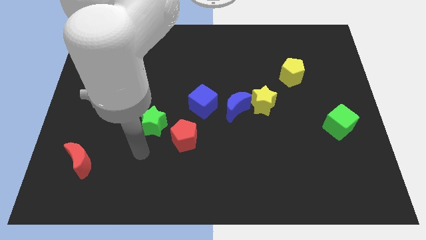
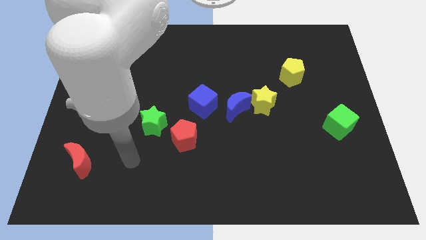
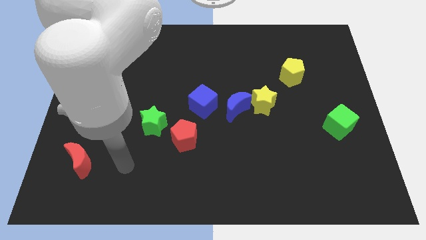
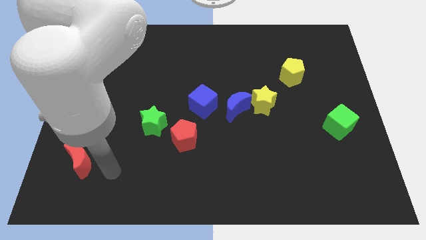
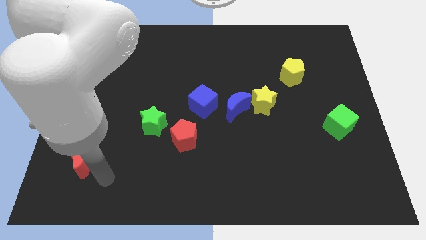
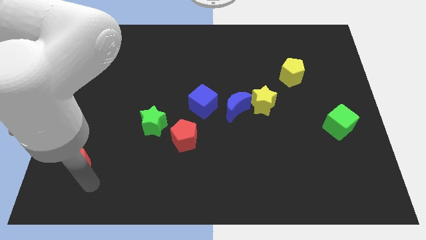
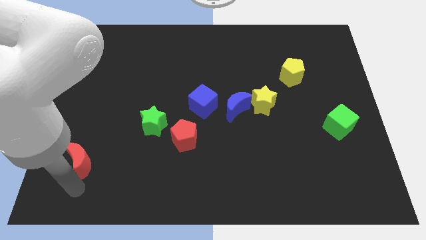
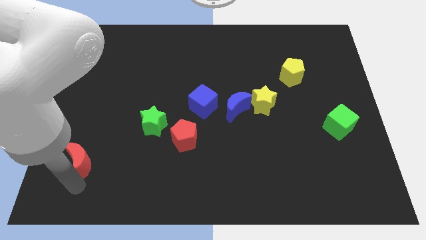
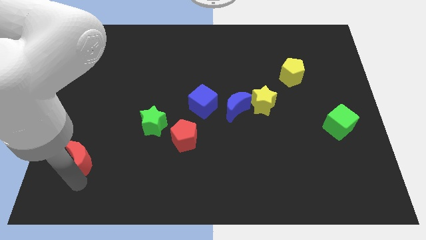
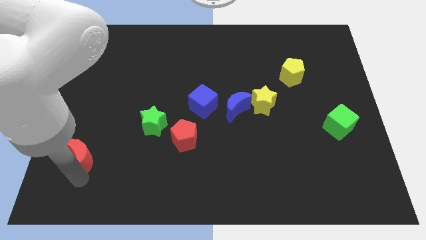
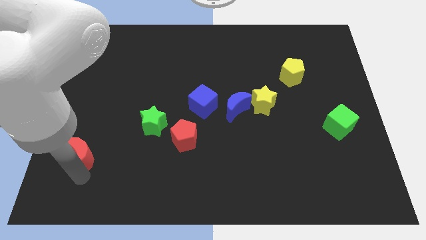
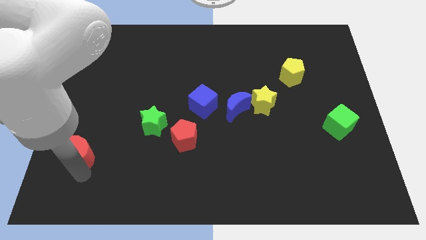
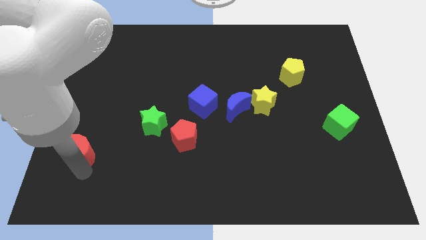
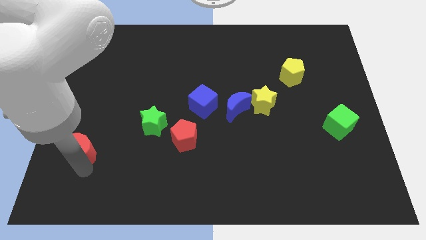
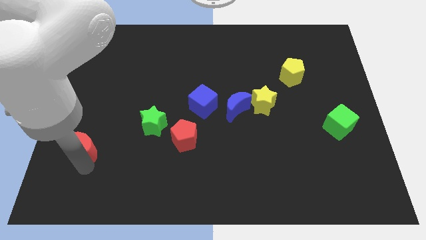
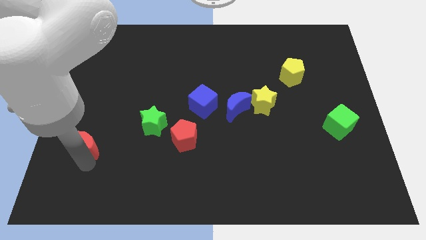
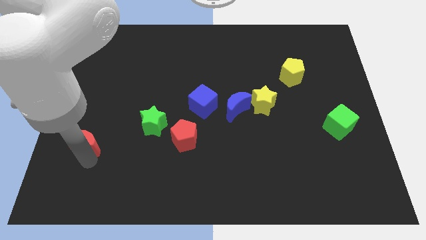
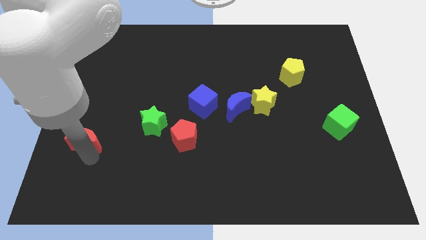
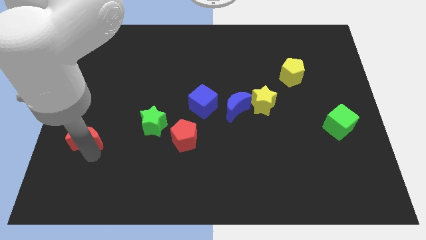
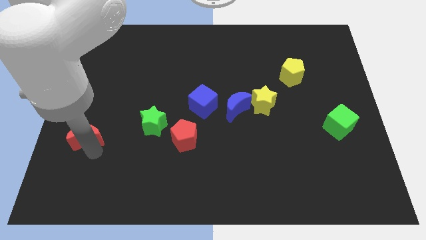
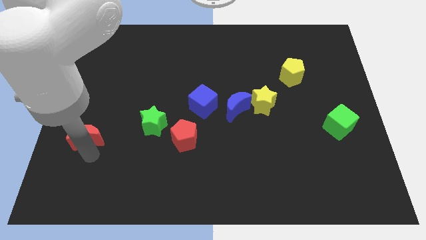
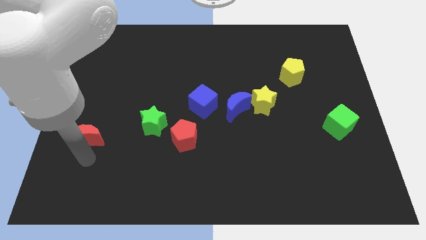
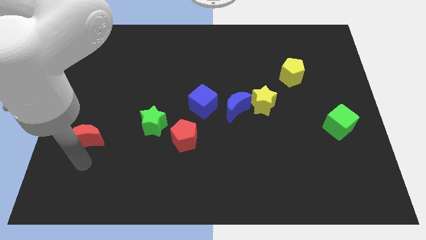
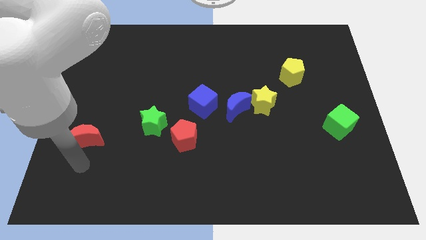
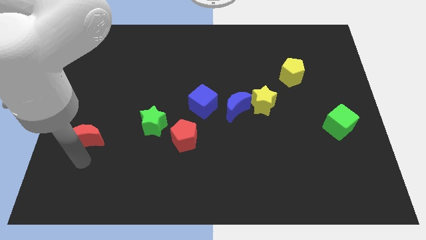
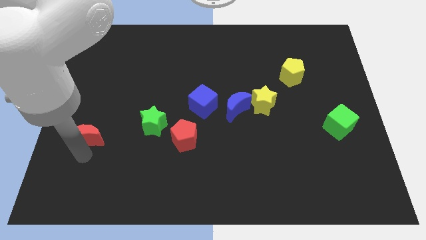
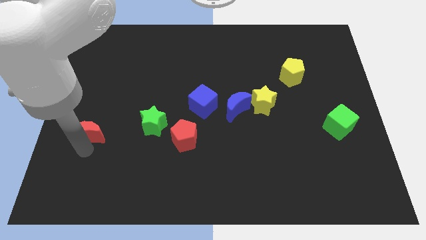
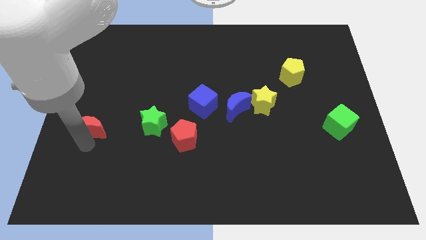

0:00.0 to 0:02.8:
slightly move the red moon upwards

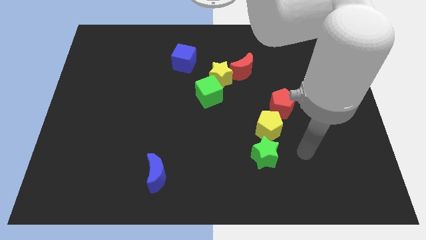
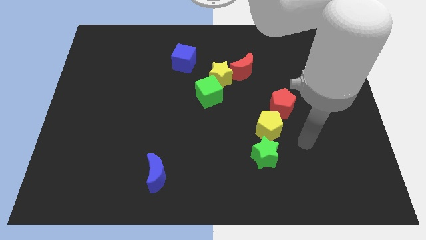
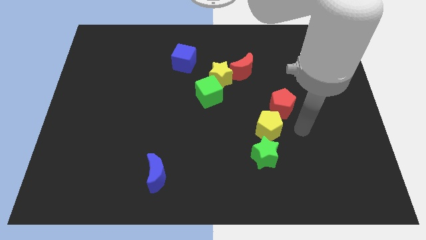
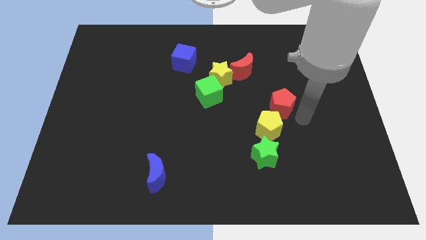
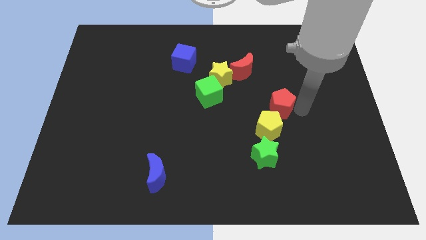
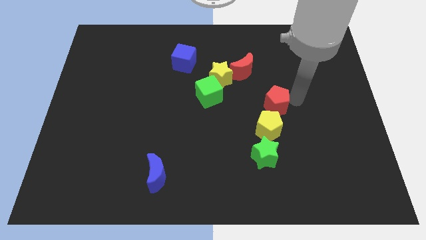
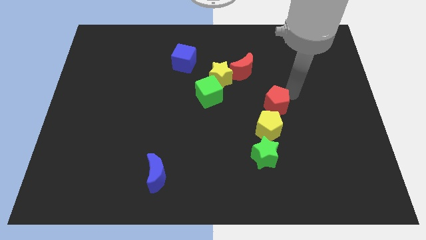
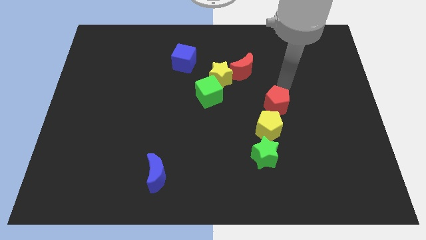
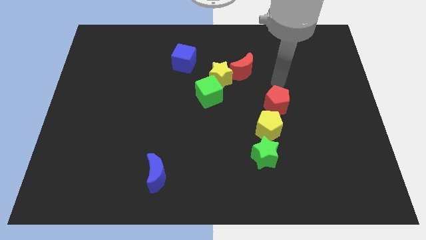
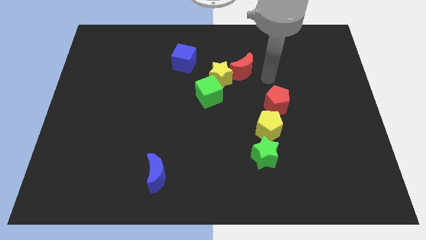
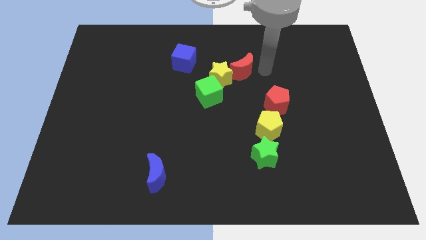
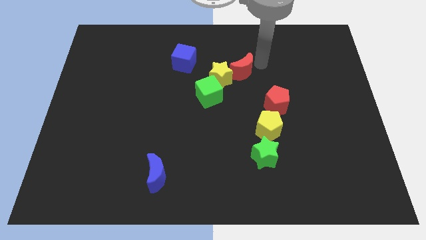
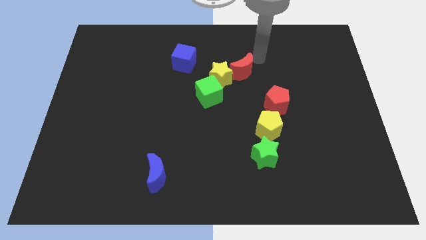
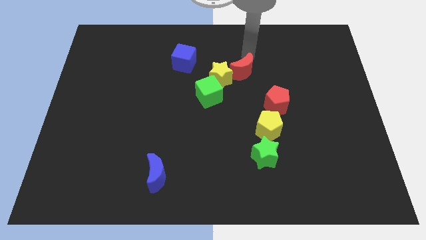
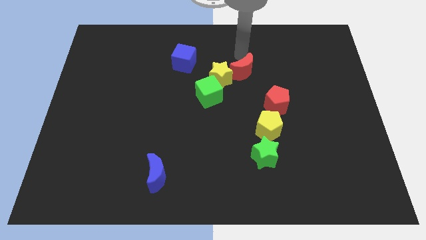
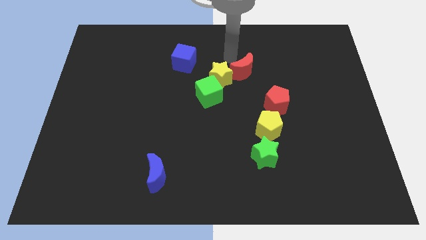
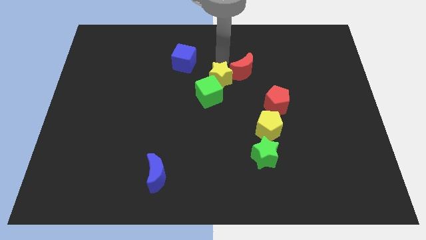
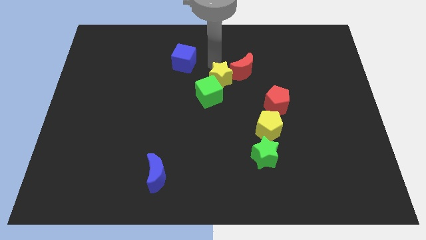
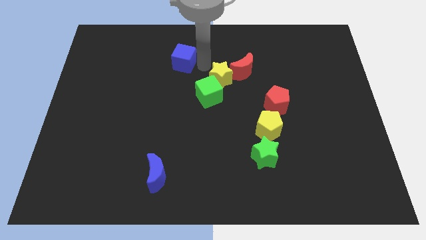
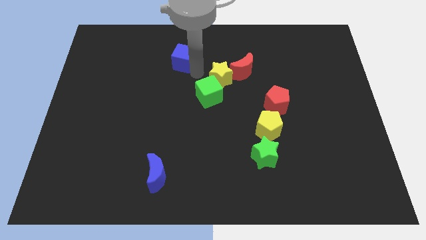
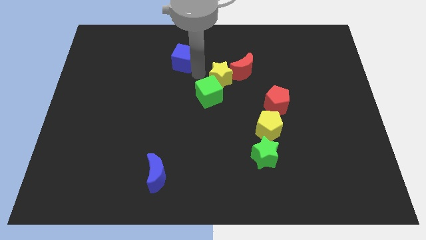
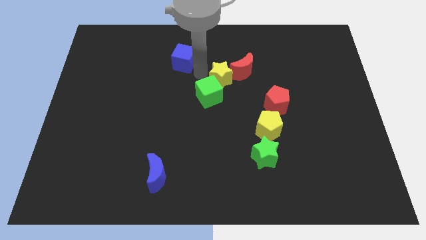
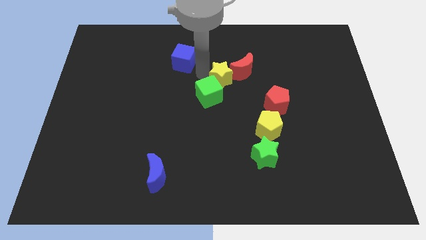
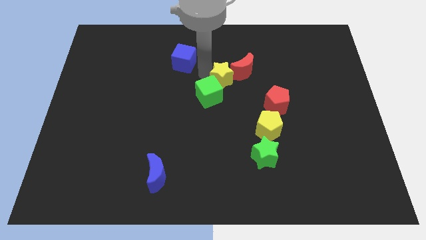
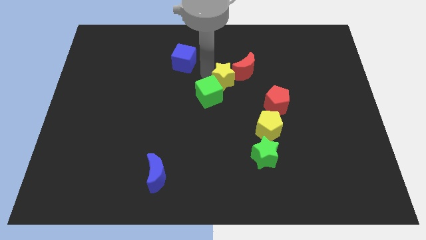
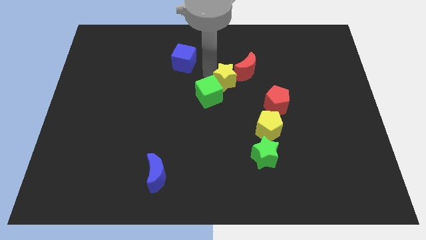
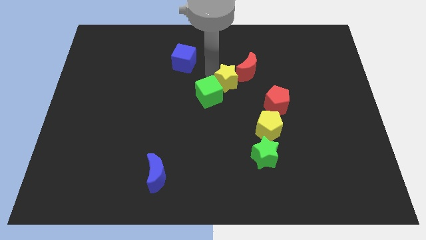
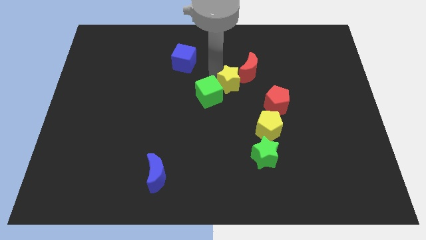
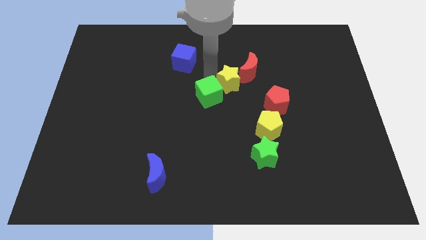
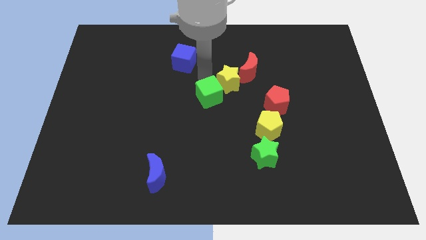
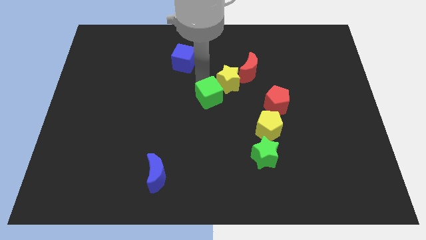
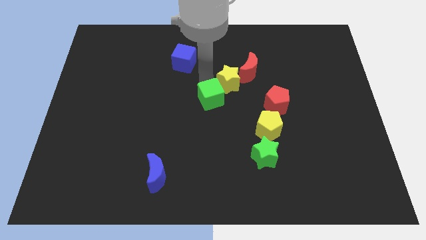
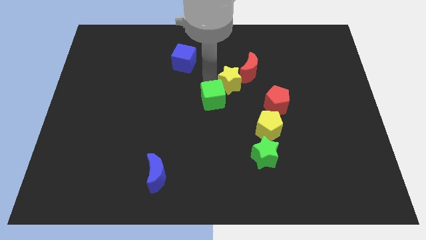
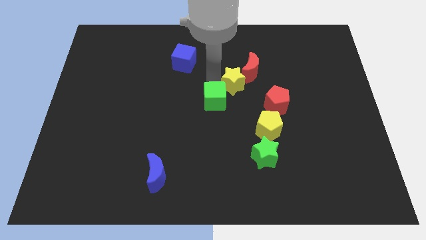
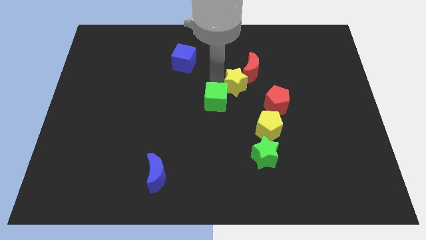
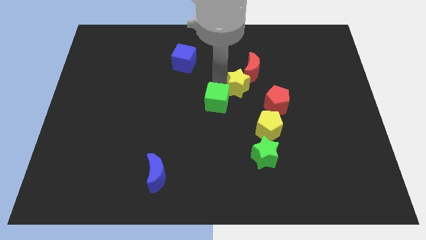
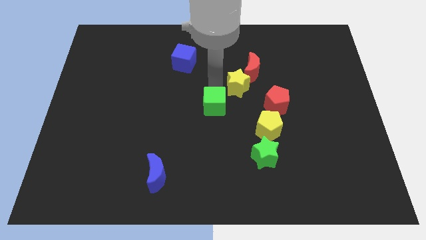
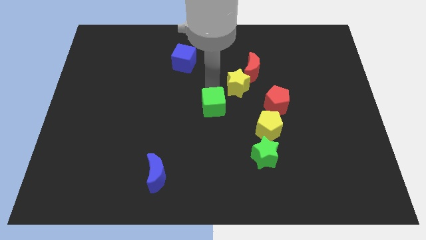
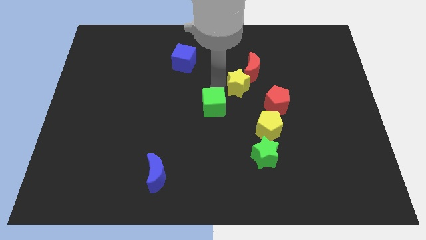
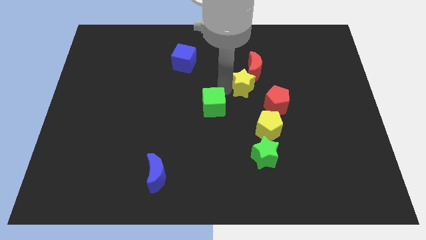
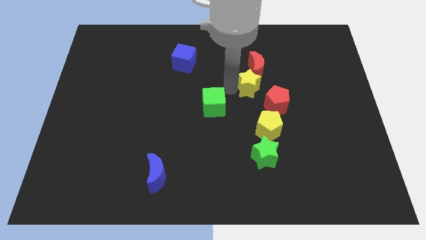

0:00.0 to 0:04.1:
push the yellow star a little bit right

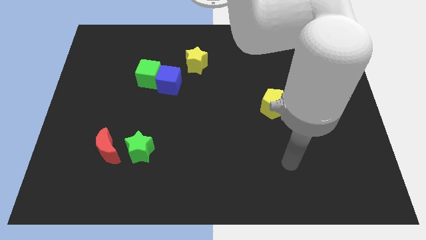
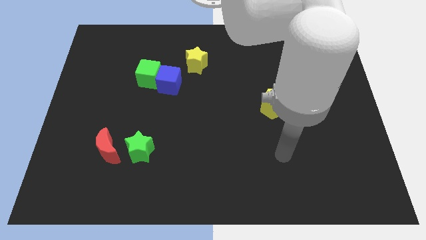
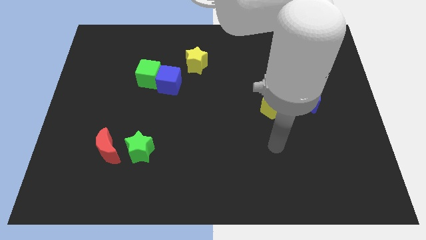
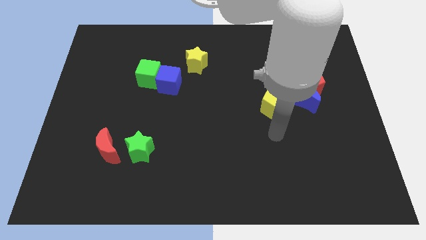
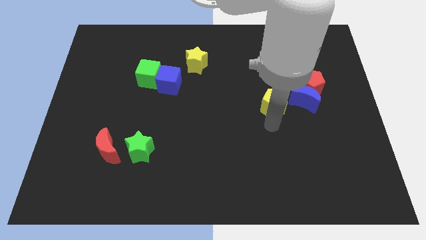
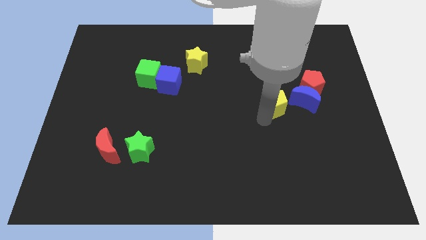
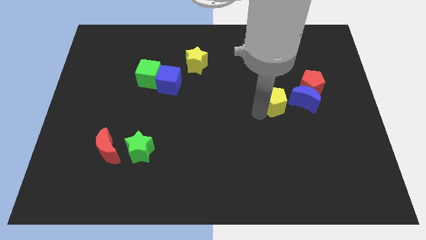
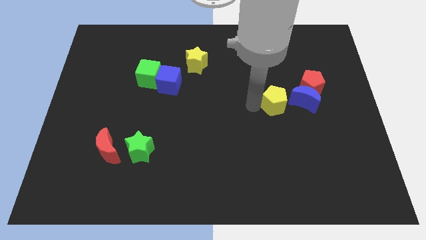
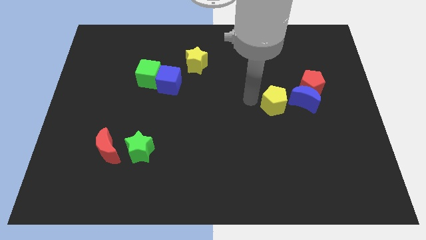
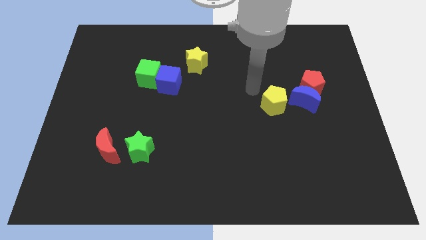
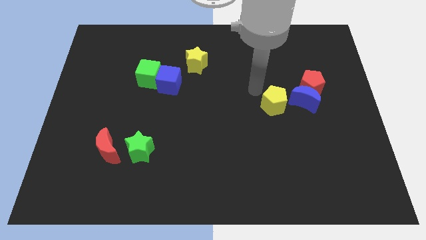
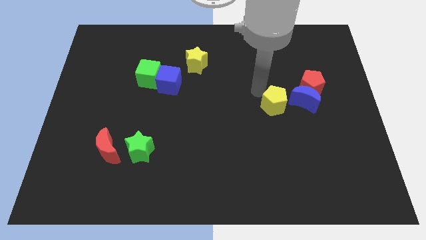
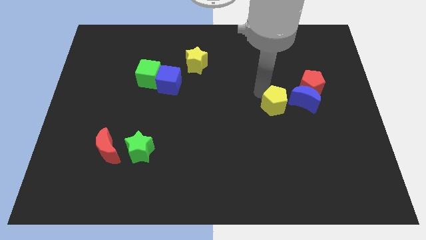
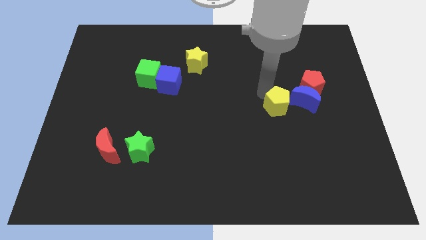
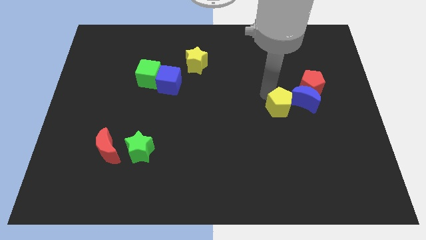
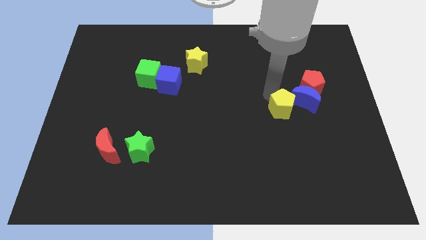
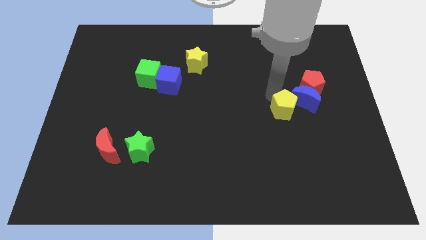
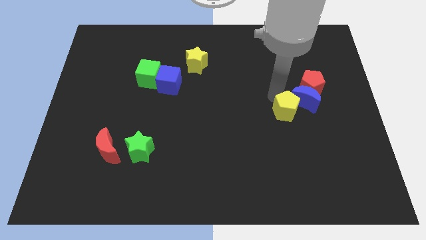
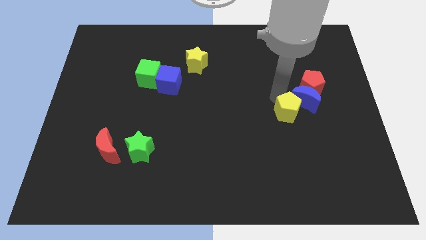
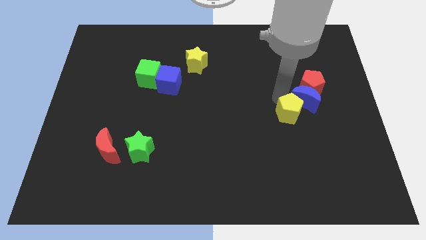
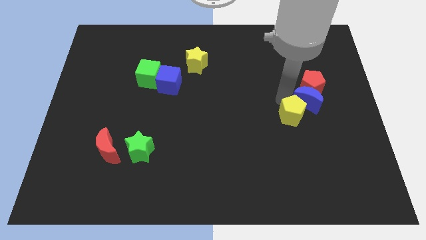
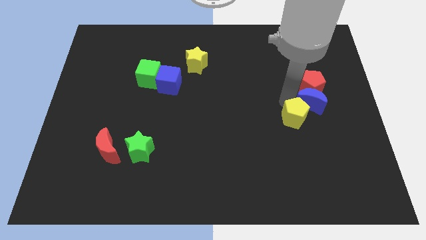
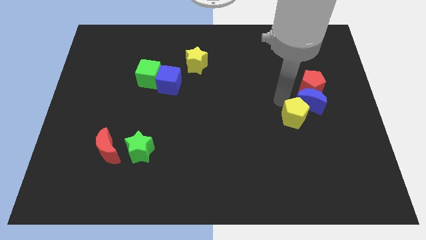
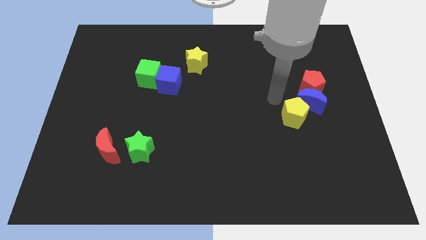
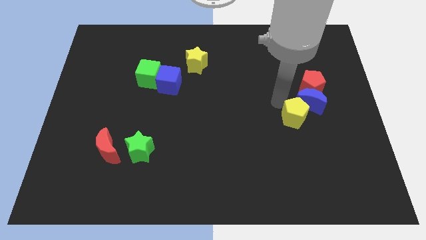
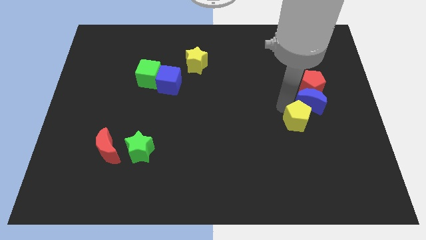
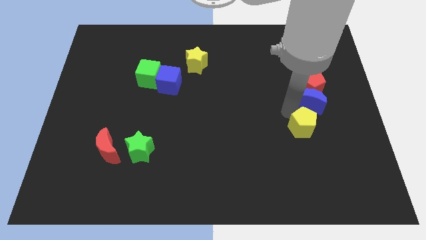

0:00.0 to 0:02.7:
move the yellow pentagon down and right diagonally a little bit
